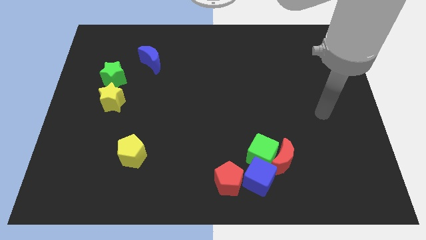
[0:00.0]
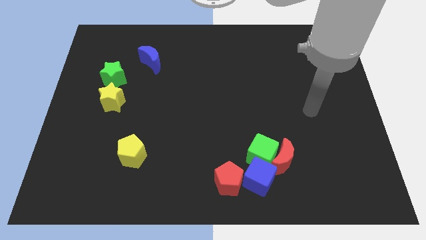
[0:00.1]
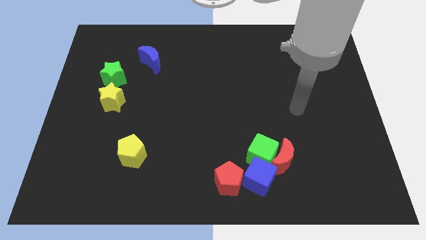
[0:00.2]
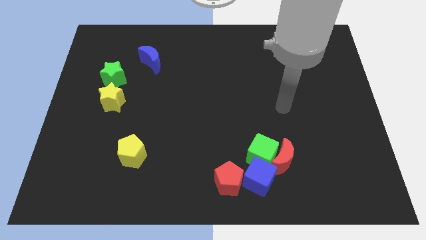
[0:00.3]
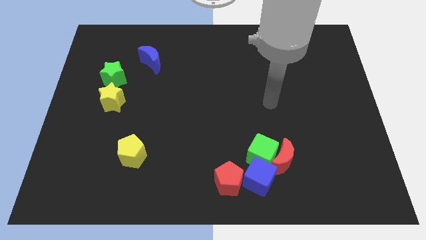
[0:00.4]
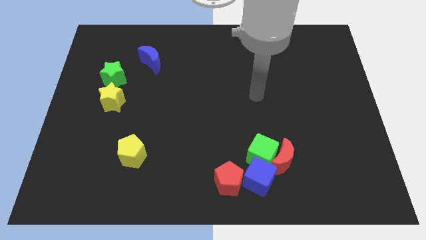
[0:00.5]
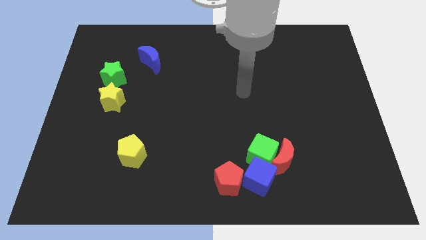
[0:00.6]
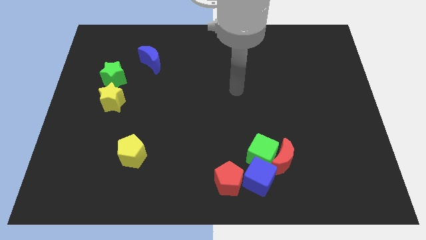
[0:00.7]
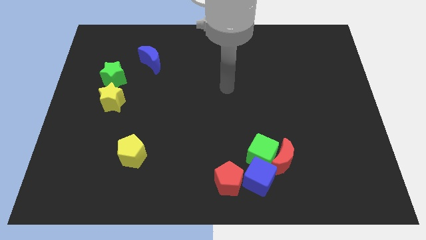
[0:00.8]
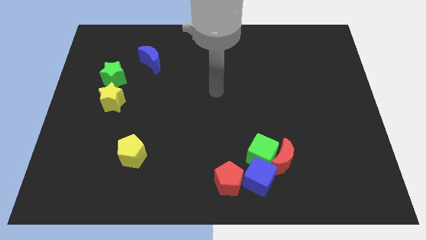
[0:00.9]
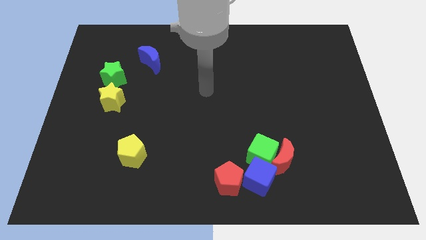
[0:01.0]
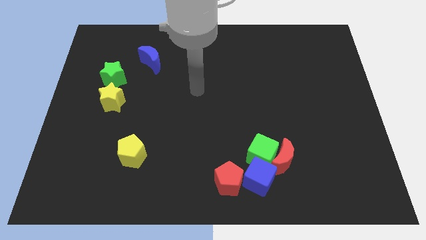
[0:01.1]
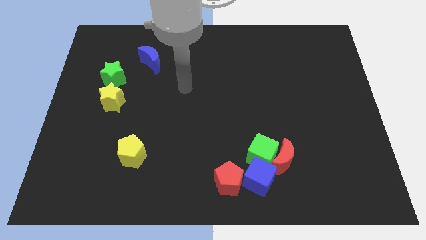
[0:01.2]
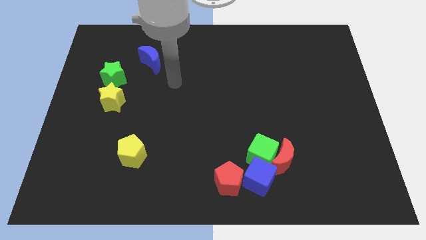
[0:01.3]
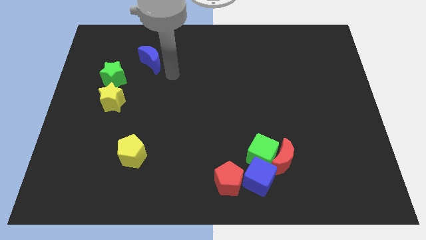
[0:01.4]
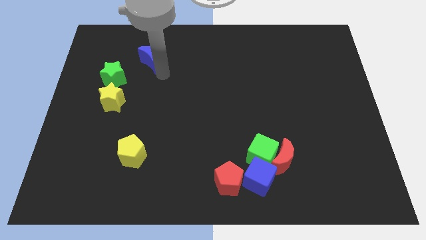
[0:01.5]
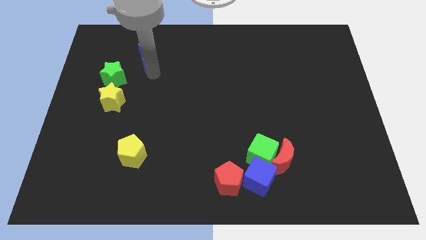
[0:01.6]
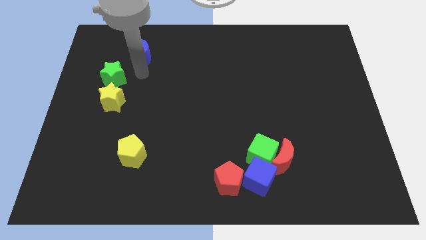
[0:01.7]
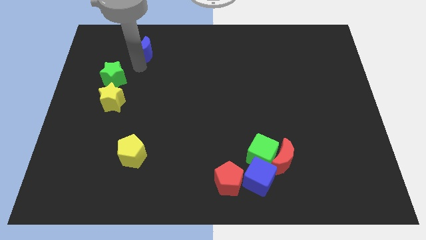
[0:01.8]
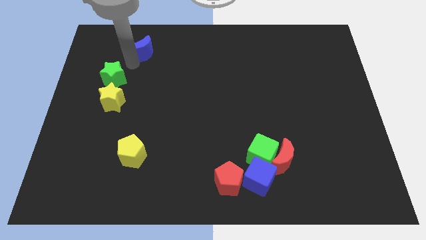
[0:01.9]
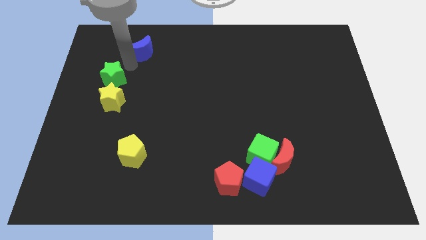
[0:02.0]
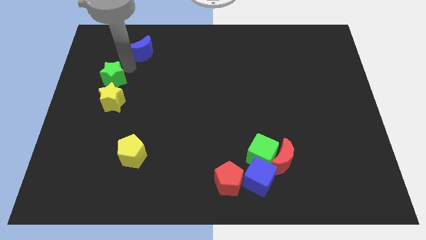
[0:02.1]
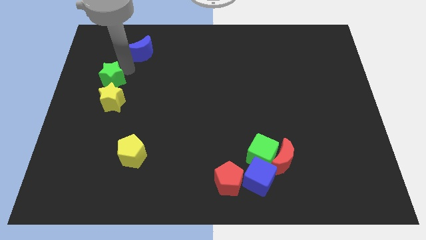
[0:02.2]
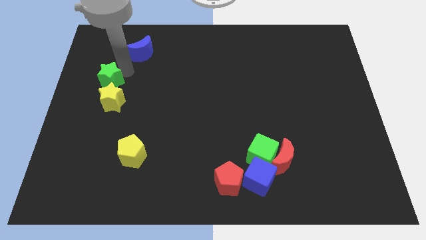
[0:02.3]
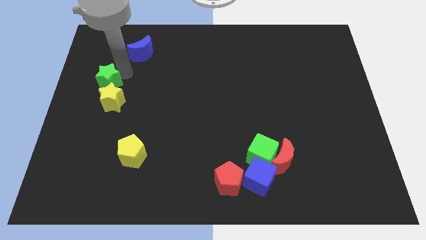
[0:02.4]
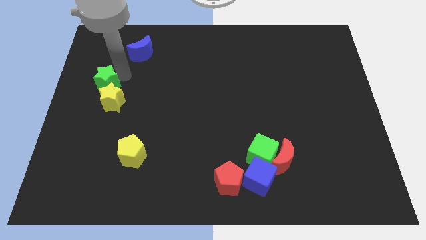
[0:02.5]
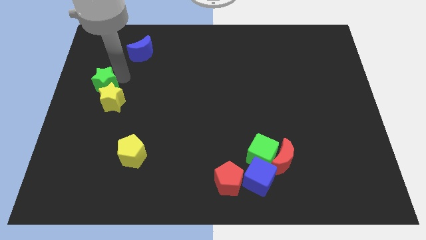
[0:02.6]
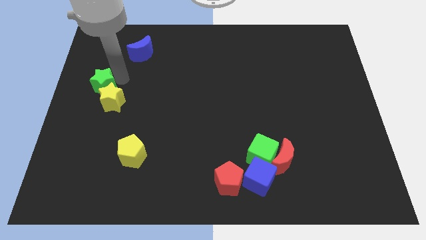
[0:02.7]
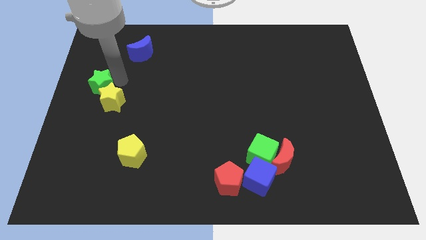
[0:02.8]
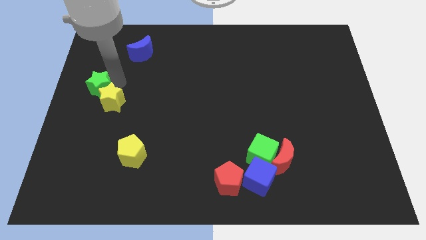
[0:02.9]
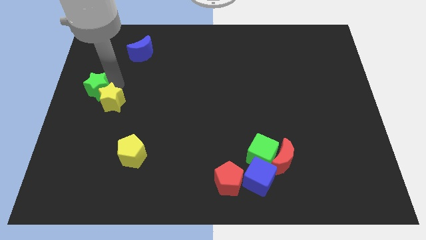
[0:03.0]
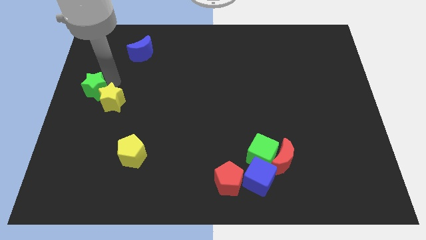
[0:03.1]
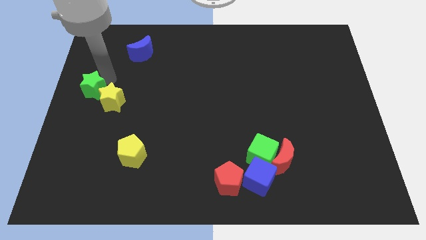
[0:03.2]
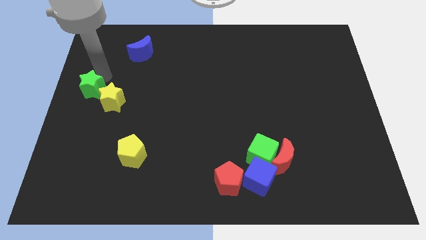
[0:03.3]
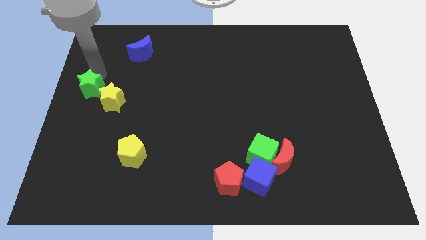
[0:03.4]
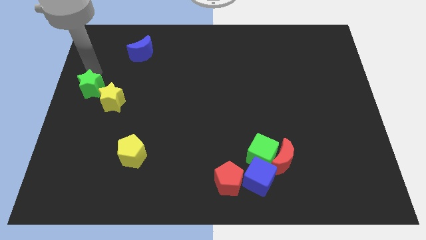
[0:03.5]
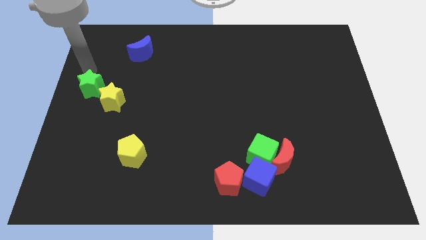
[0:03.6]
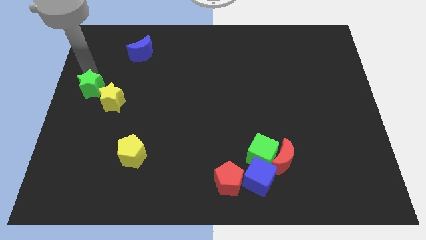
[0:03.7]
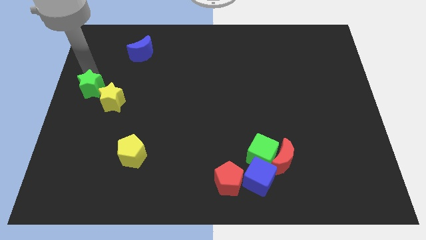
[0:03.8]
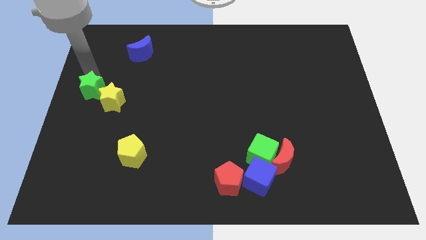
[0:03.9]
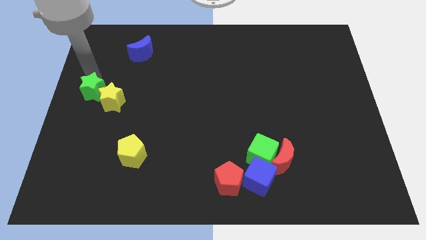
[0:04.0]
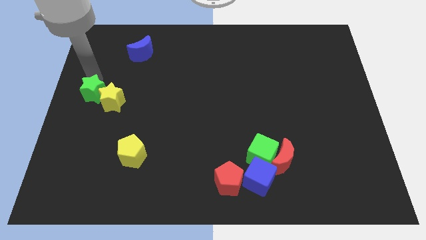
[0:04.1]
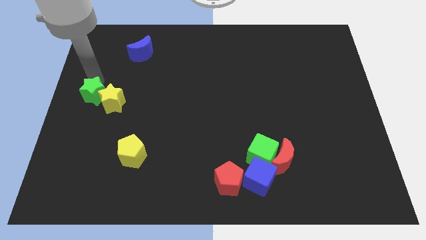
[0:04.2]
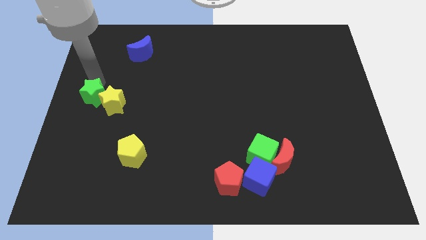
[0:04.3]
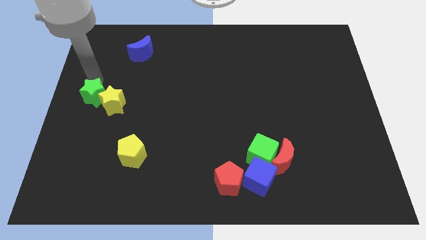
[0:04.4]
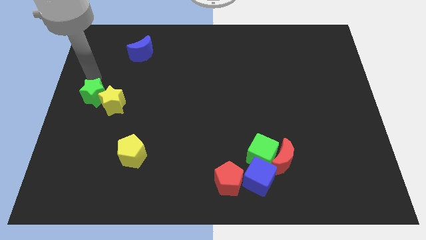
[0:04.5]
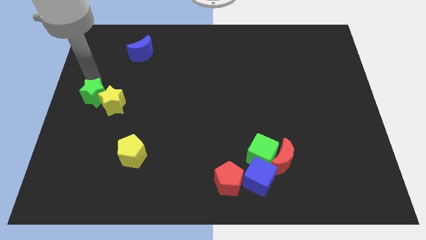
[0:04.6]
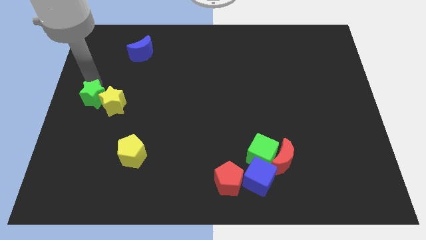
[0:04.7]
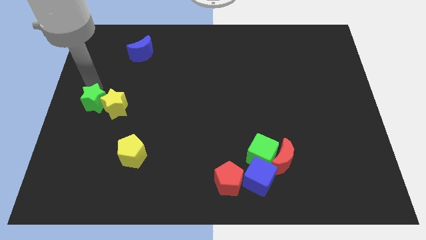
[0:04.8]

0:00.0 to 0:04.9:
slightly push the green star down

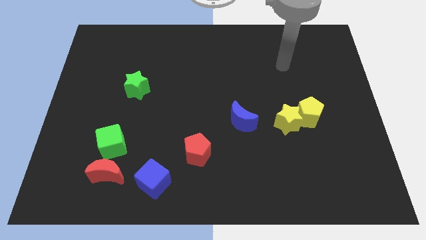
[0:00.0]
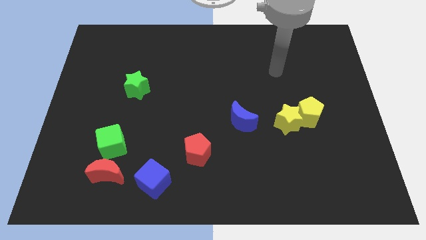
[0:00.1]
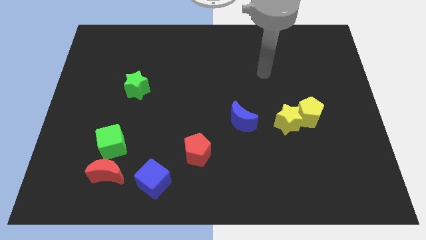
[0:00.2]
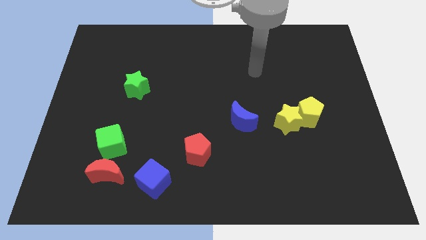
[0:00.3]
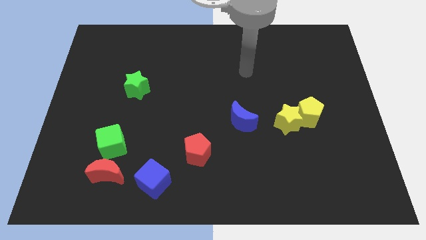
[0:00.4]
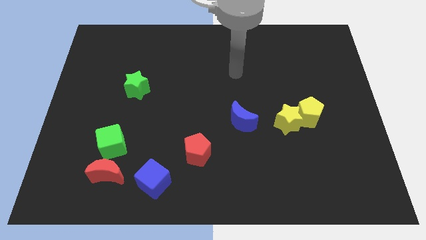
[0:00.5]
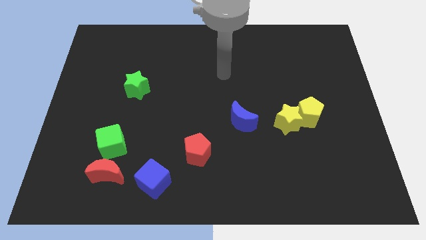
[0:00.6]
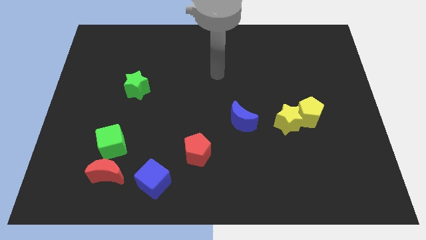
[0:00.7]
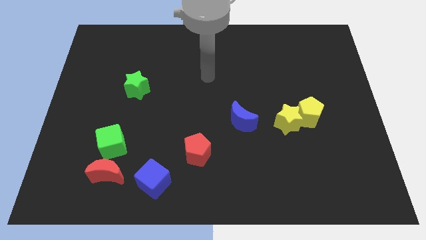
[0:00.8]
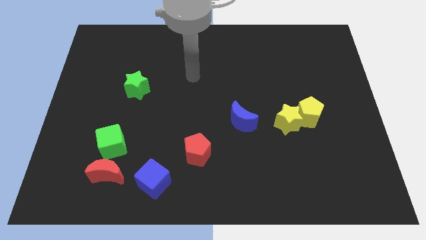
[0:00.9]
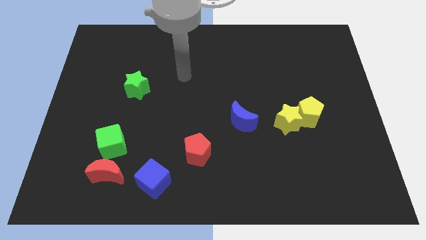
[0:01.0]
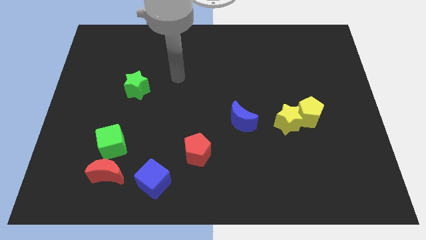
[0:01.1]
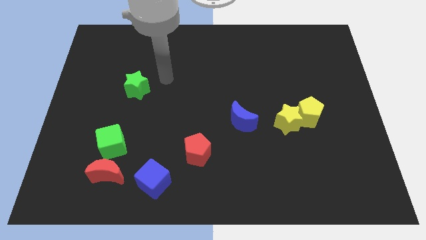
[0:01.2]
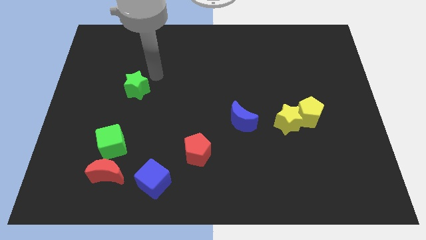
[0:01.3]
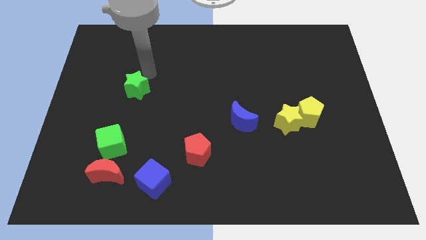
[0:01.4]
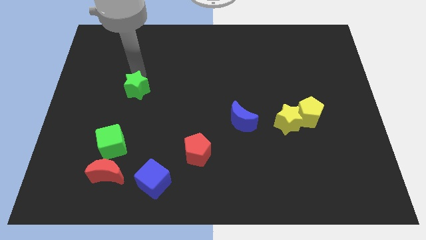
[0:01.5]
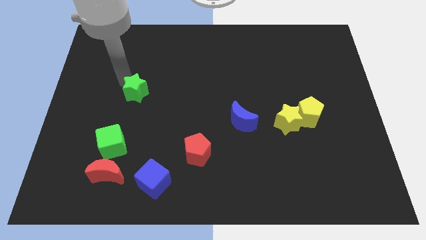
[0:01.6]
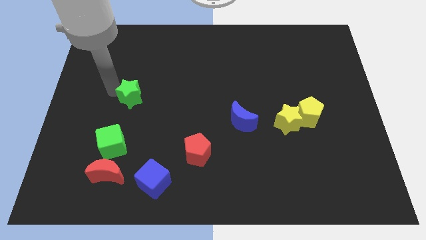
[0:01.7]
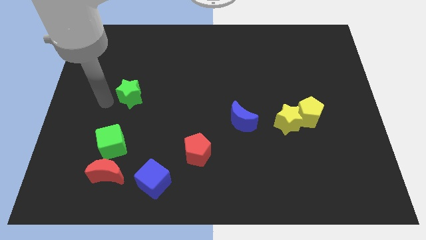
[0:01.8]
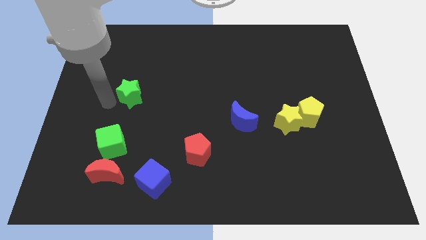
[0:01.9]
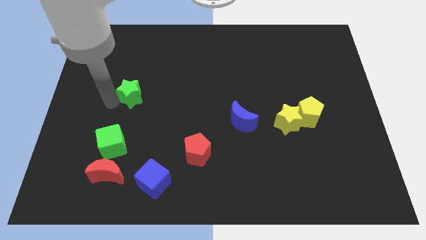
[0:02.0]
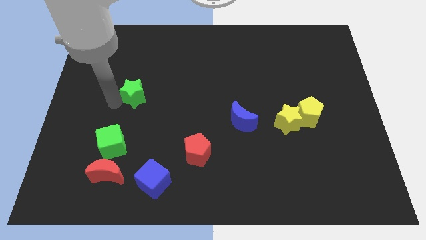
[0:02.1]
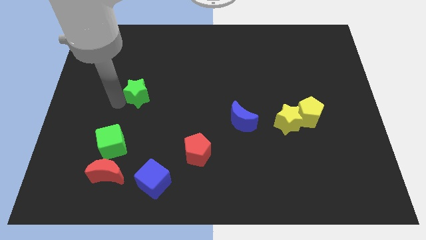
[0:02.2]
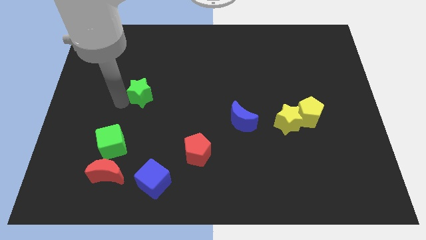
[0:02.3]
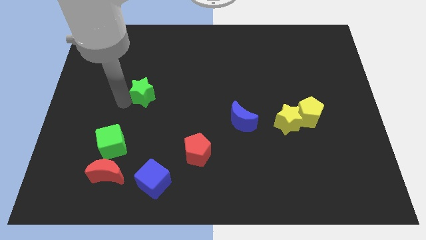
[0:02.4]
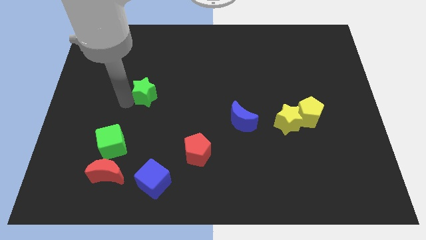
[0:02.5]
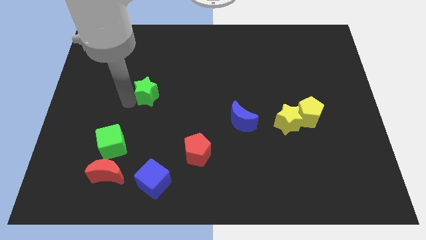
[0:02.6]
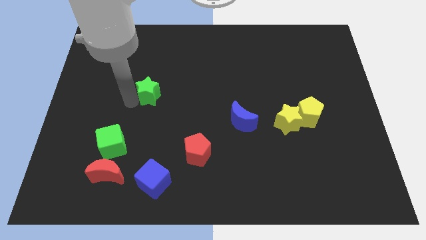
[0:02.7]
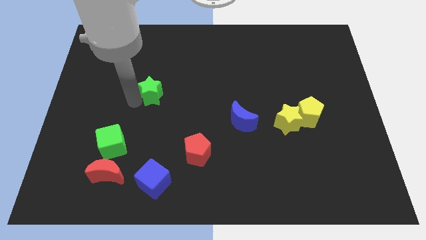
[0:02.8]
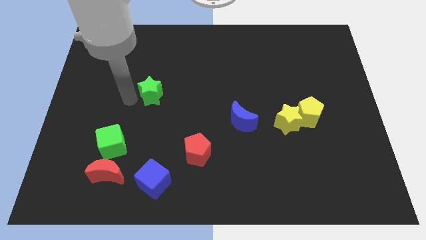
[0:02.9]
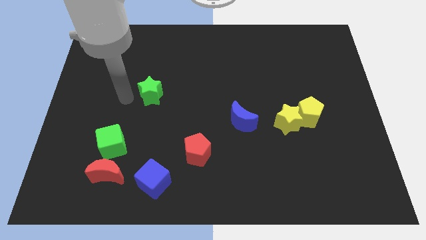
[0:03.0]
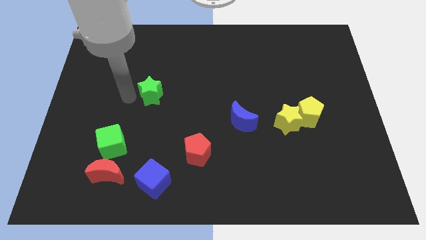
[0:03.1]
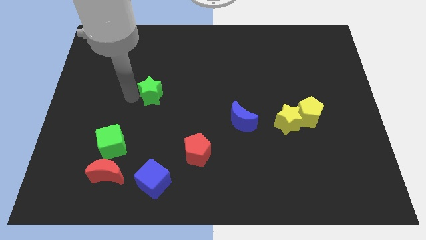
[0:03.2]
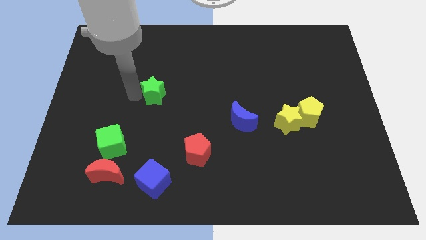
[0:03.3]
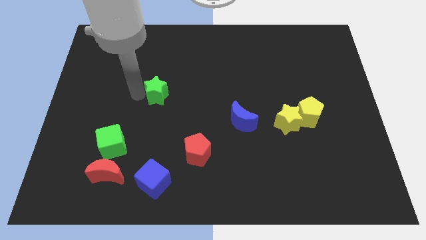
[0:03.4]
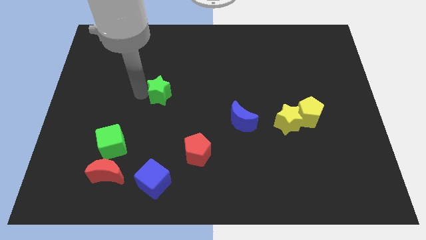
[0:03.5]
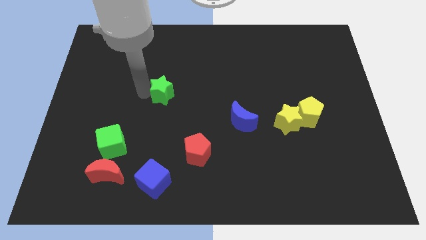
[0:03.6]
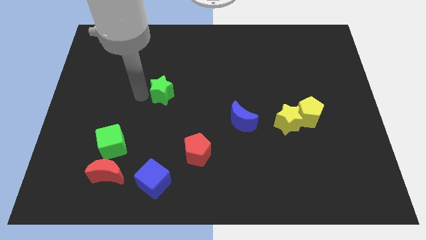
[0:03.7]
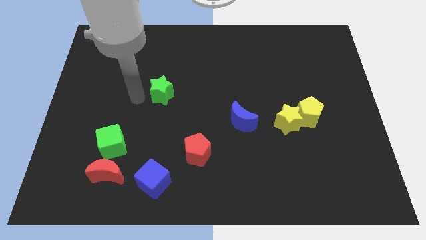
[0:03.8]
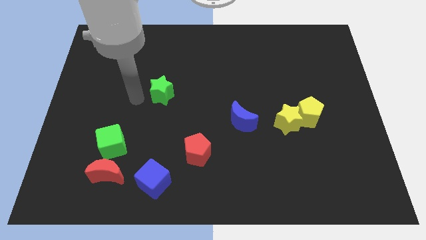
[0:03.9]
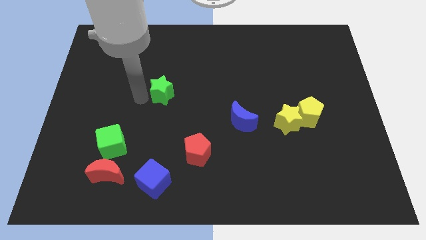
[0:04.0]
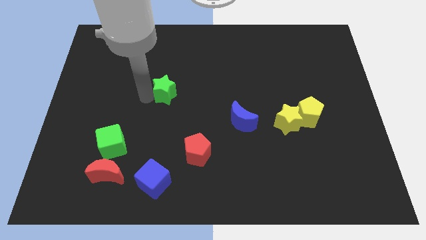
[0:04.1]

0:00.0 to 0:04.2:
move the green star to the right slightly
